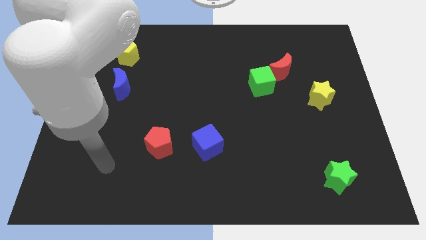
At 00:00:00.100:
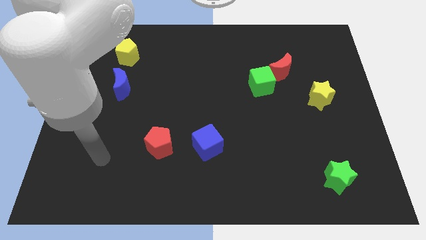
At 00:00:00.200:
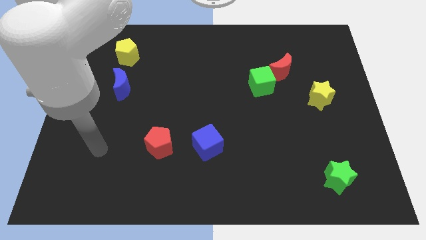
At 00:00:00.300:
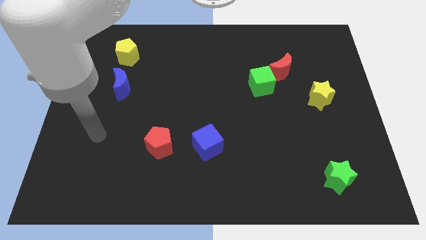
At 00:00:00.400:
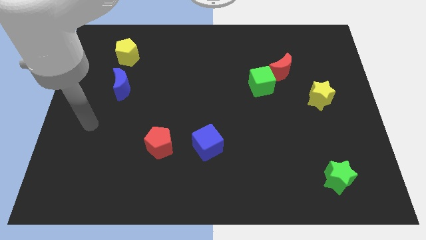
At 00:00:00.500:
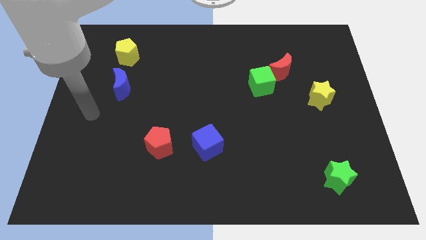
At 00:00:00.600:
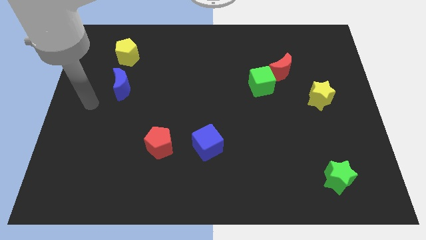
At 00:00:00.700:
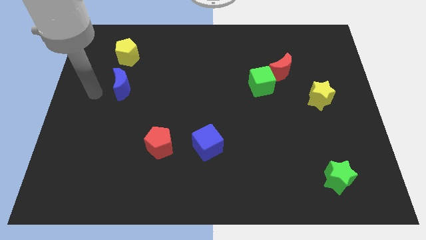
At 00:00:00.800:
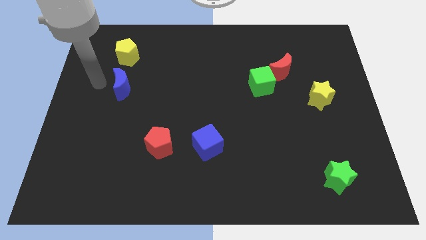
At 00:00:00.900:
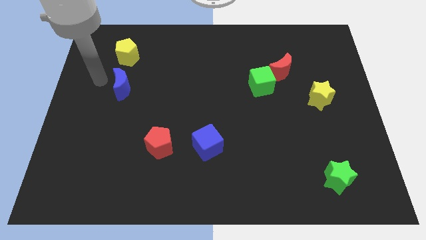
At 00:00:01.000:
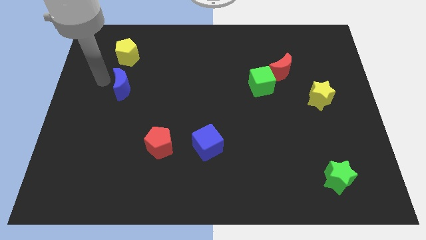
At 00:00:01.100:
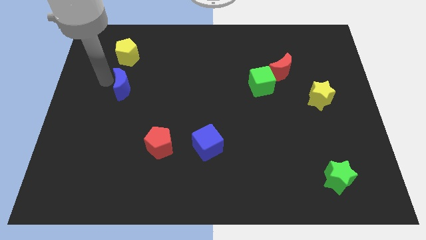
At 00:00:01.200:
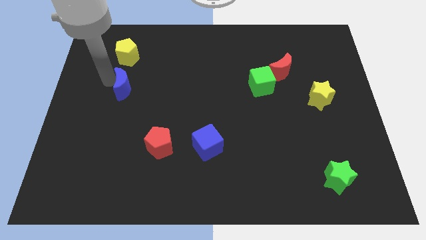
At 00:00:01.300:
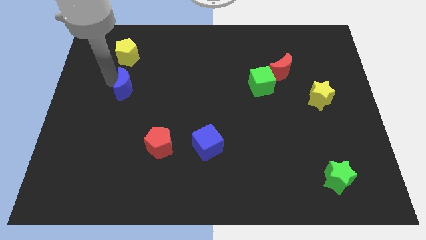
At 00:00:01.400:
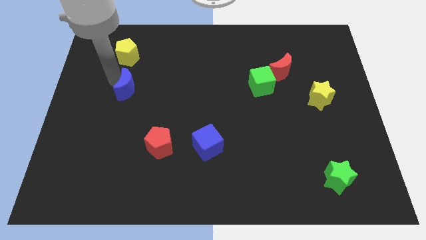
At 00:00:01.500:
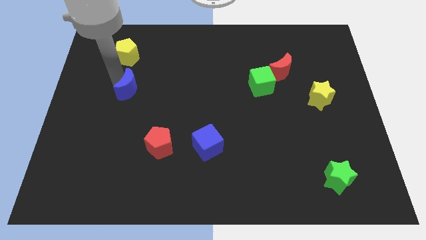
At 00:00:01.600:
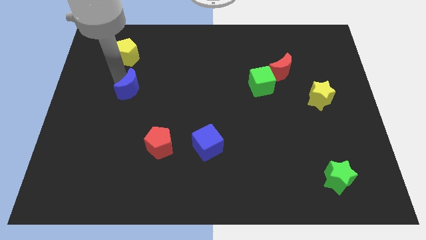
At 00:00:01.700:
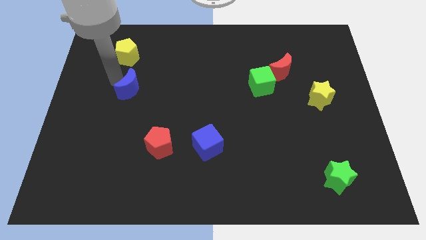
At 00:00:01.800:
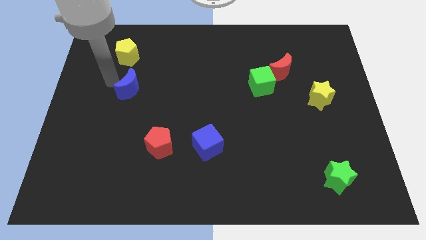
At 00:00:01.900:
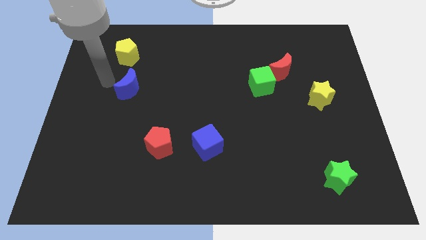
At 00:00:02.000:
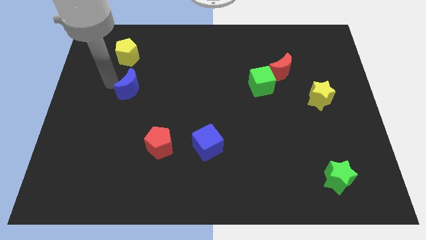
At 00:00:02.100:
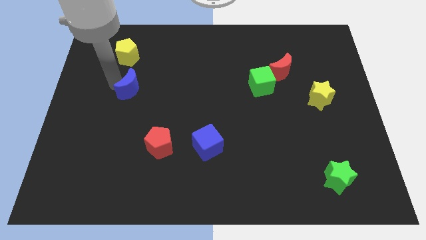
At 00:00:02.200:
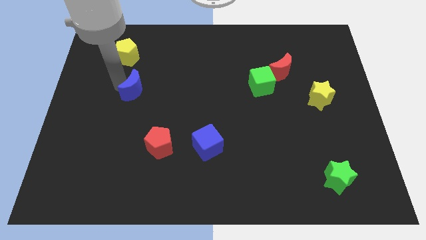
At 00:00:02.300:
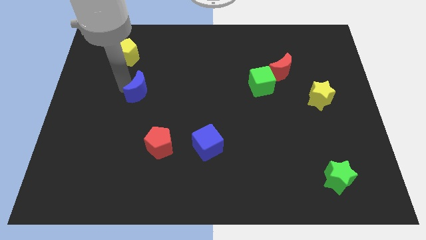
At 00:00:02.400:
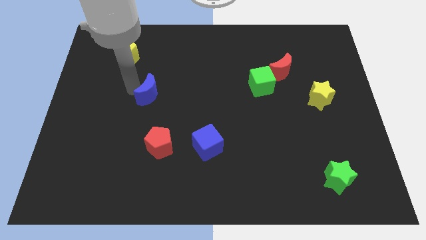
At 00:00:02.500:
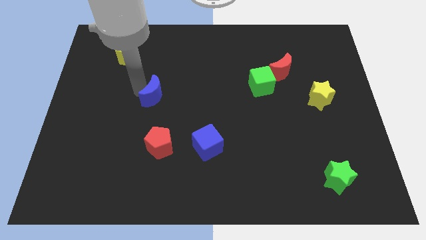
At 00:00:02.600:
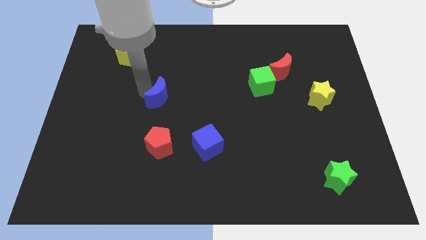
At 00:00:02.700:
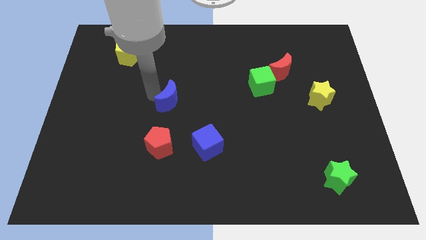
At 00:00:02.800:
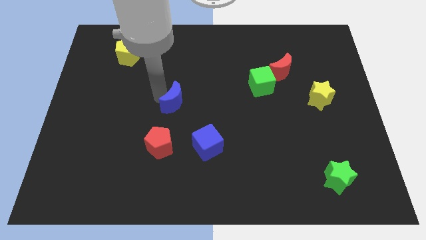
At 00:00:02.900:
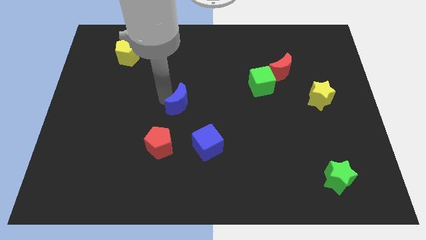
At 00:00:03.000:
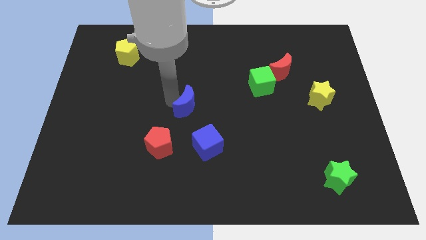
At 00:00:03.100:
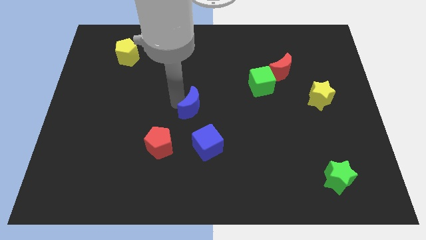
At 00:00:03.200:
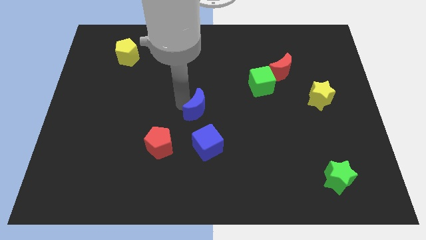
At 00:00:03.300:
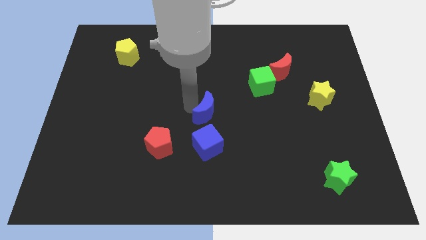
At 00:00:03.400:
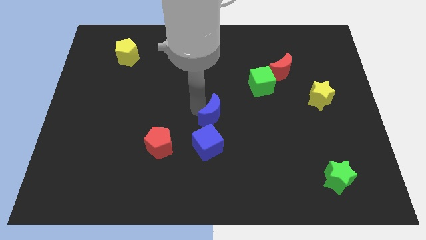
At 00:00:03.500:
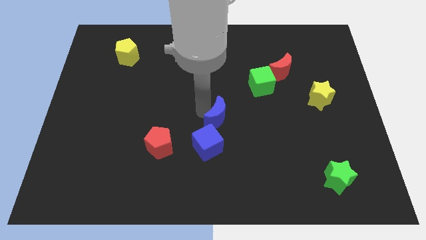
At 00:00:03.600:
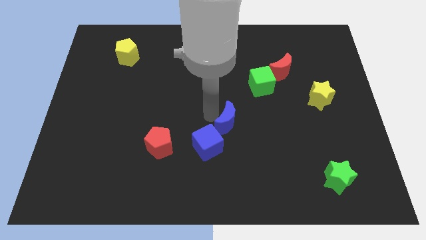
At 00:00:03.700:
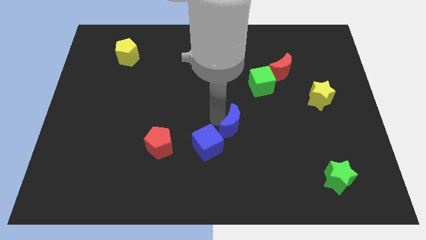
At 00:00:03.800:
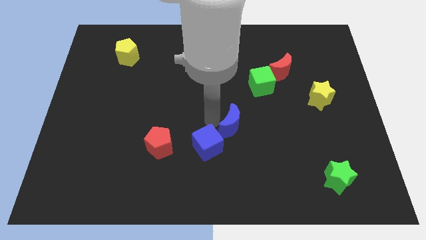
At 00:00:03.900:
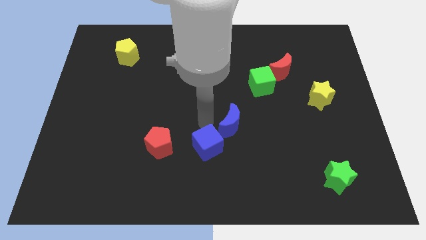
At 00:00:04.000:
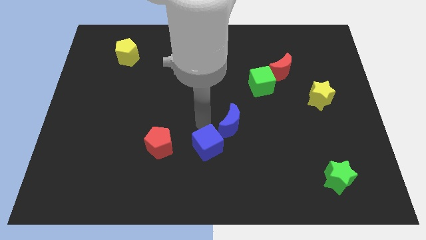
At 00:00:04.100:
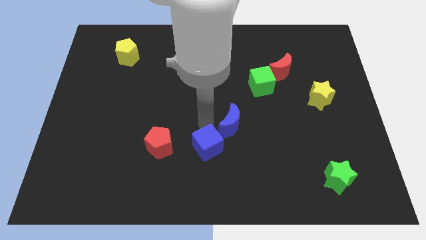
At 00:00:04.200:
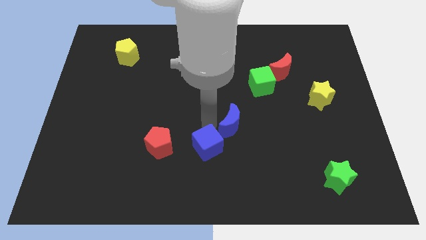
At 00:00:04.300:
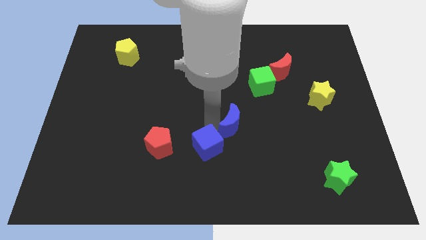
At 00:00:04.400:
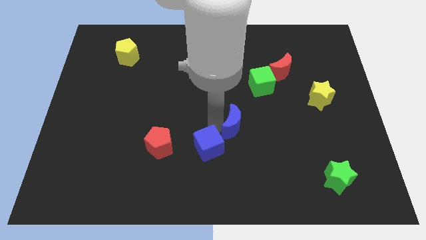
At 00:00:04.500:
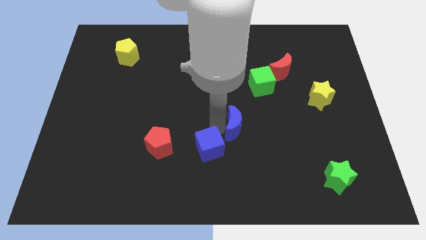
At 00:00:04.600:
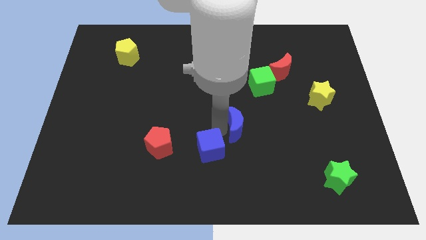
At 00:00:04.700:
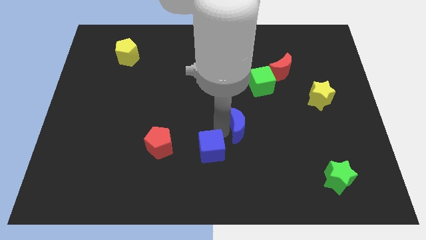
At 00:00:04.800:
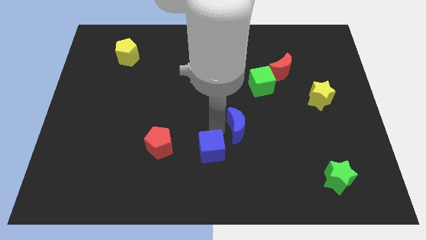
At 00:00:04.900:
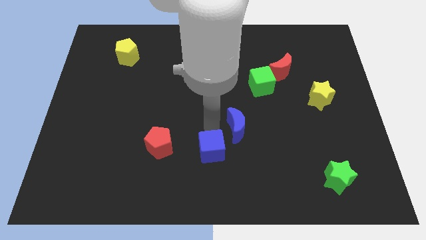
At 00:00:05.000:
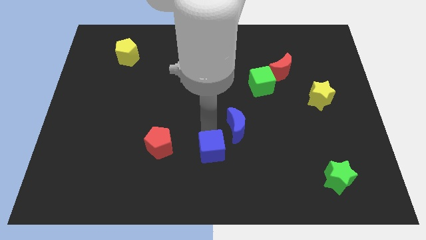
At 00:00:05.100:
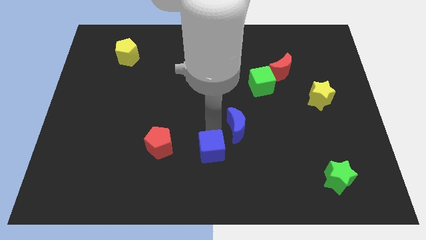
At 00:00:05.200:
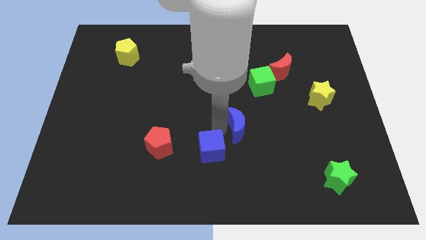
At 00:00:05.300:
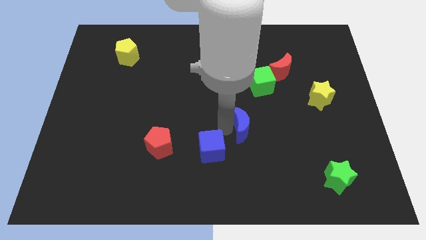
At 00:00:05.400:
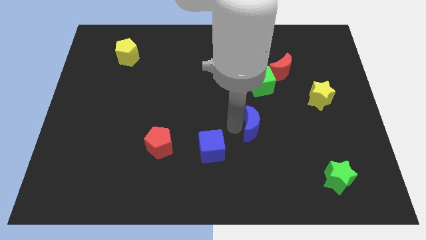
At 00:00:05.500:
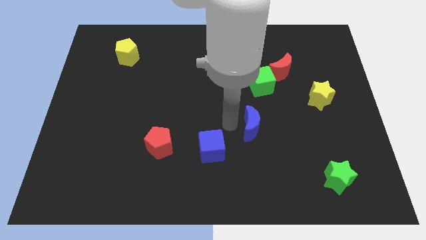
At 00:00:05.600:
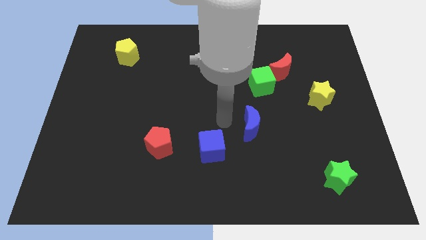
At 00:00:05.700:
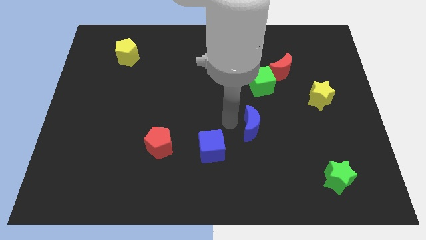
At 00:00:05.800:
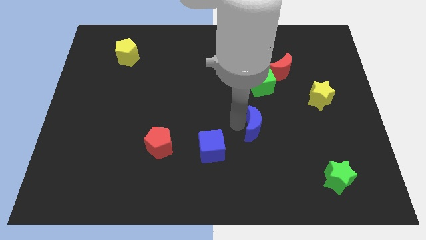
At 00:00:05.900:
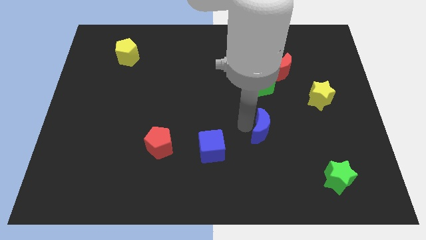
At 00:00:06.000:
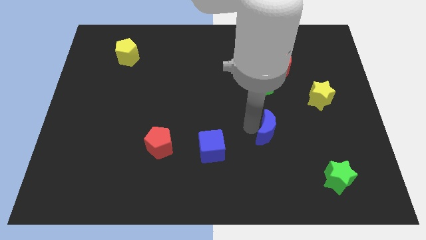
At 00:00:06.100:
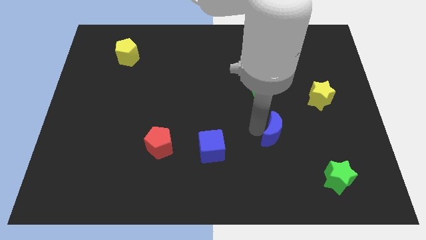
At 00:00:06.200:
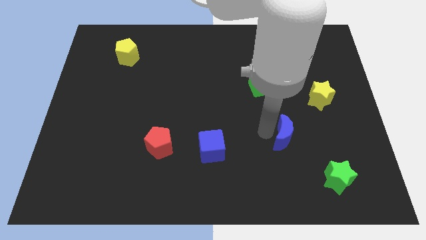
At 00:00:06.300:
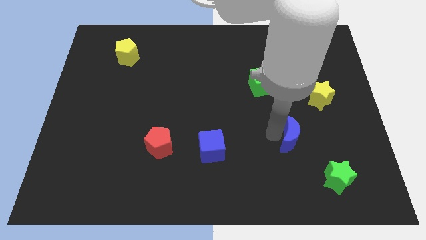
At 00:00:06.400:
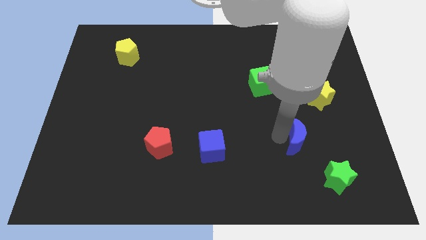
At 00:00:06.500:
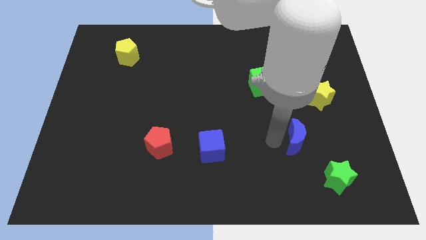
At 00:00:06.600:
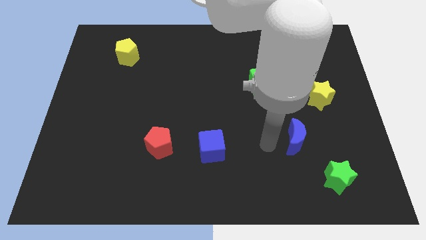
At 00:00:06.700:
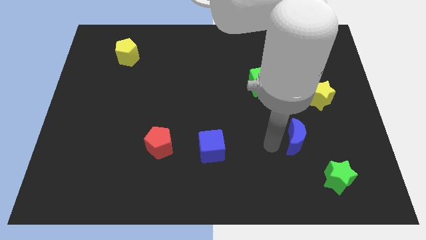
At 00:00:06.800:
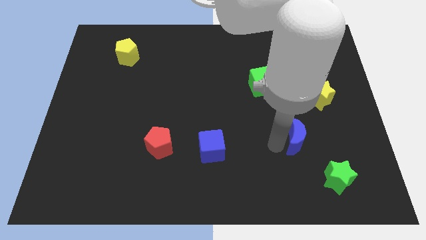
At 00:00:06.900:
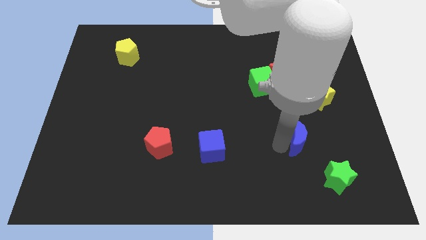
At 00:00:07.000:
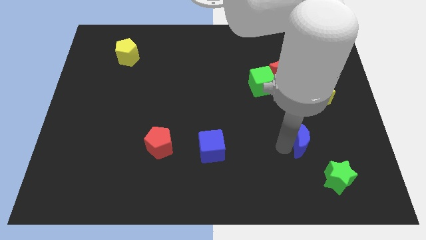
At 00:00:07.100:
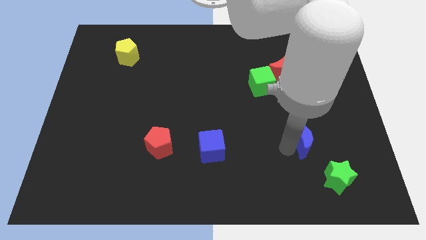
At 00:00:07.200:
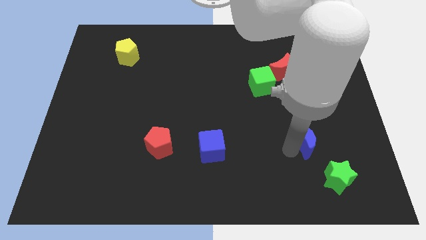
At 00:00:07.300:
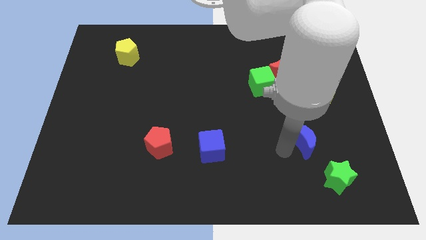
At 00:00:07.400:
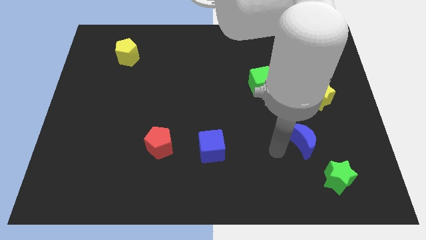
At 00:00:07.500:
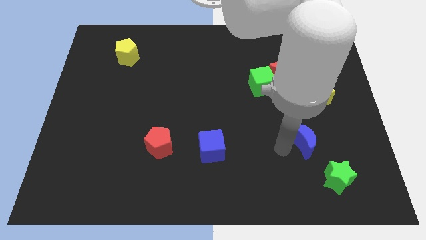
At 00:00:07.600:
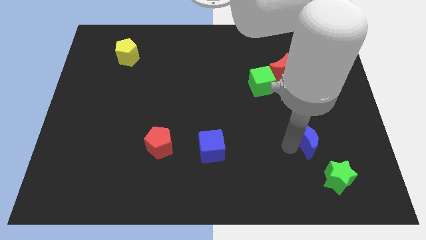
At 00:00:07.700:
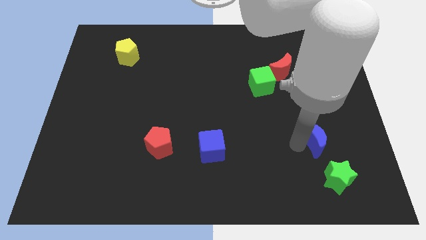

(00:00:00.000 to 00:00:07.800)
push the blue moon to the bottom of the yellow star
